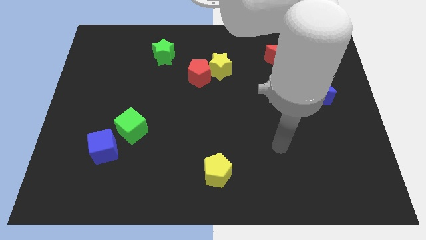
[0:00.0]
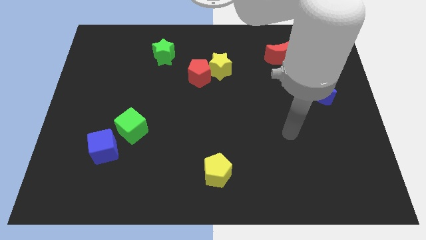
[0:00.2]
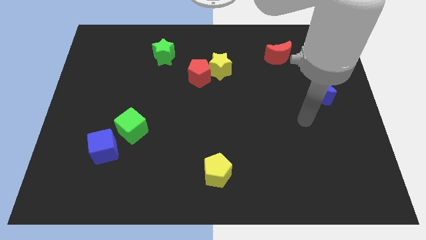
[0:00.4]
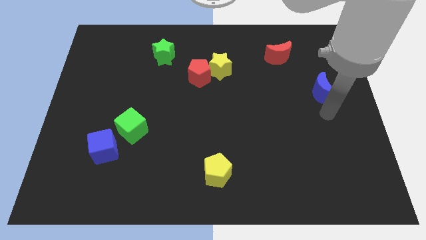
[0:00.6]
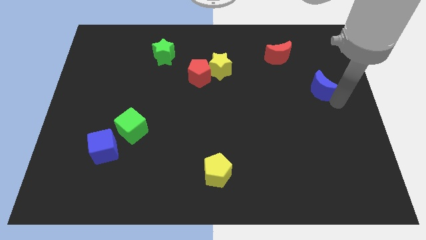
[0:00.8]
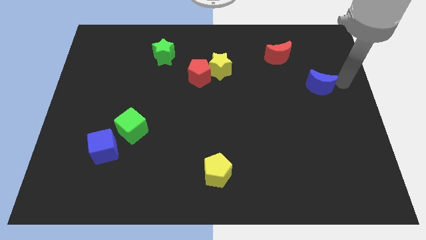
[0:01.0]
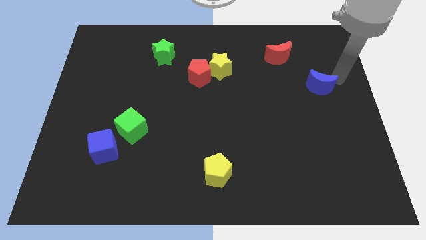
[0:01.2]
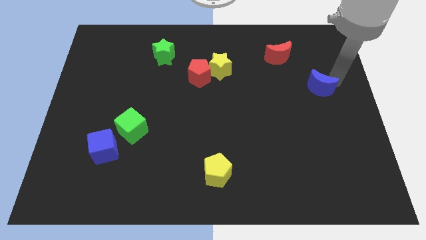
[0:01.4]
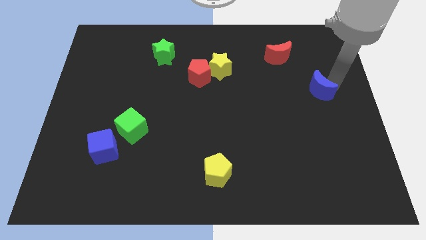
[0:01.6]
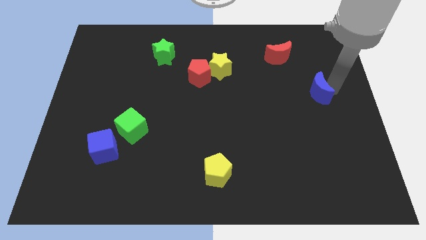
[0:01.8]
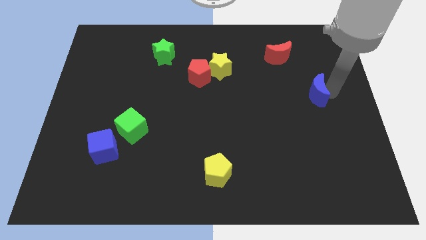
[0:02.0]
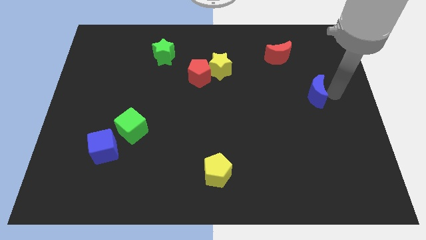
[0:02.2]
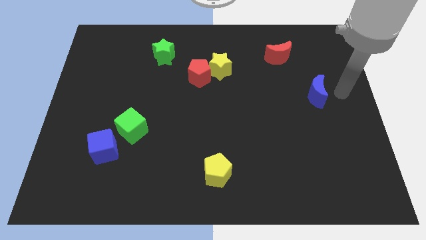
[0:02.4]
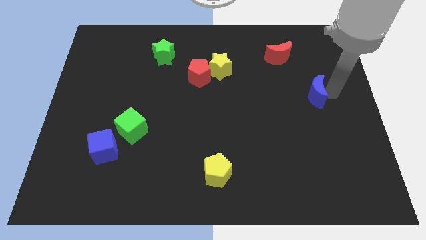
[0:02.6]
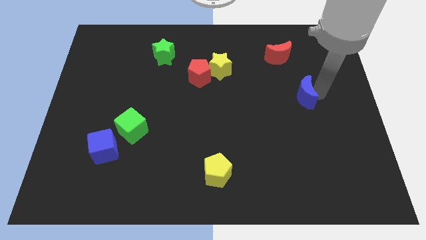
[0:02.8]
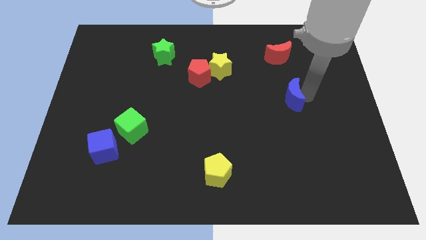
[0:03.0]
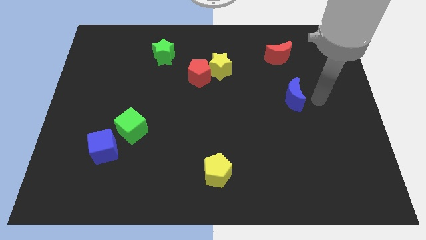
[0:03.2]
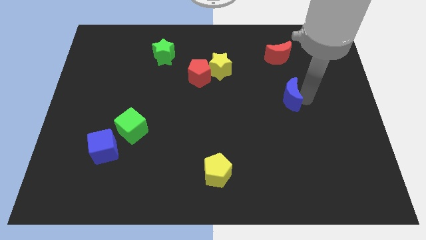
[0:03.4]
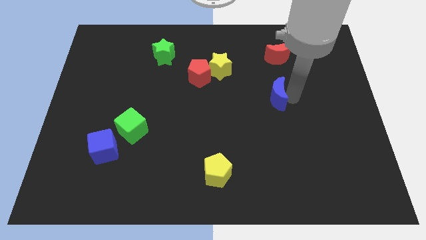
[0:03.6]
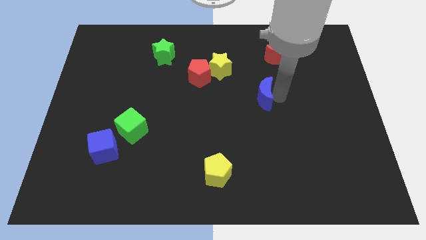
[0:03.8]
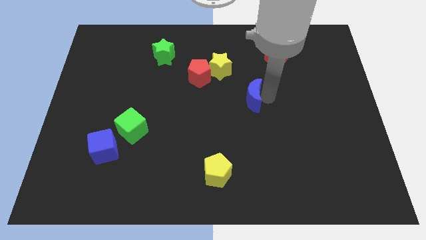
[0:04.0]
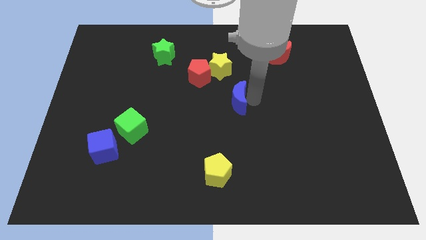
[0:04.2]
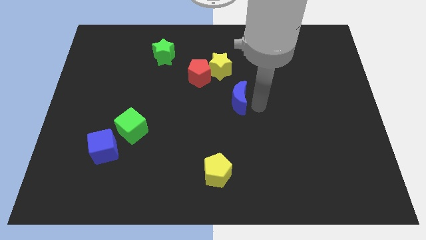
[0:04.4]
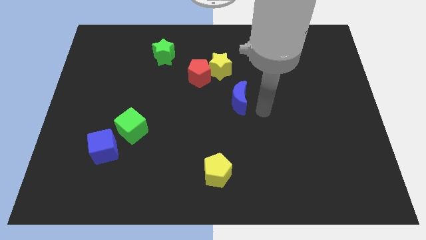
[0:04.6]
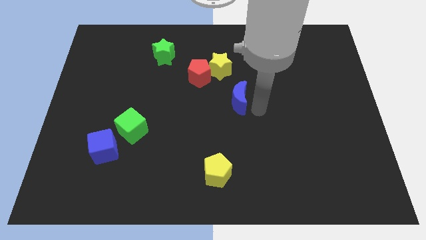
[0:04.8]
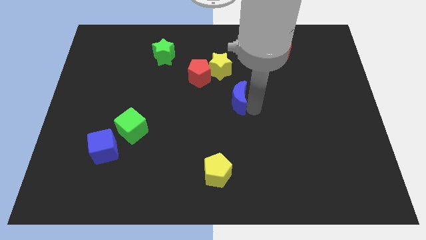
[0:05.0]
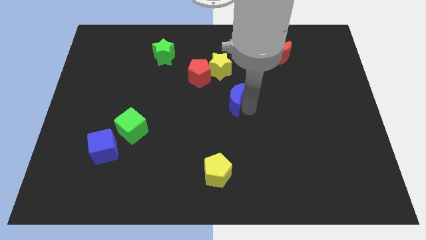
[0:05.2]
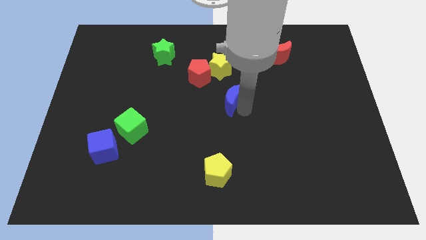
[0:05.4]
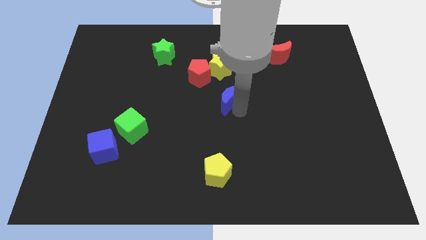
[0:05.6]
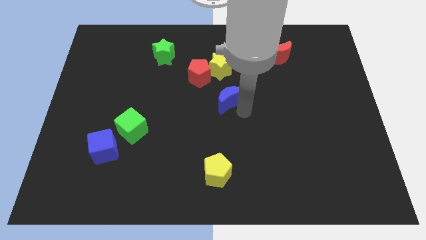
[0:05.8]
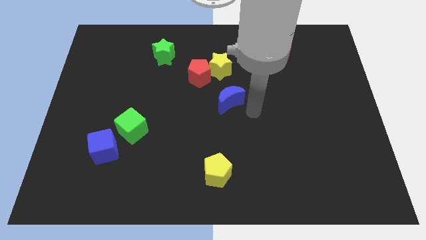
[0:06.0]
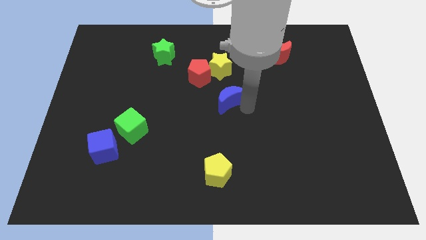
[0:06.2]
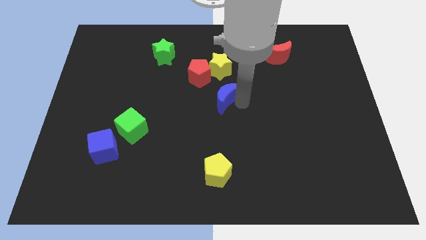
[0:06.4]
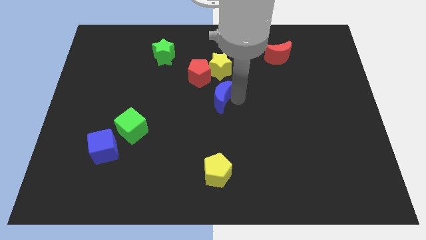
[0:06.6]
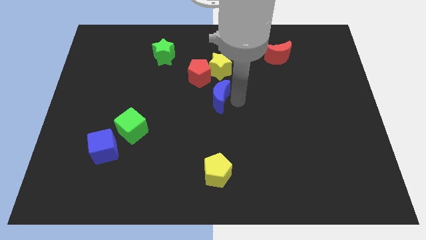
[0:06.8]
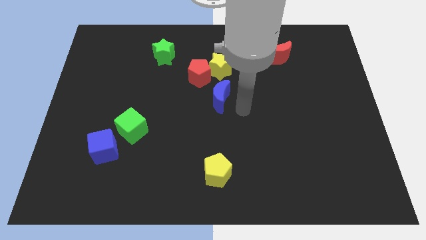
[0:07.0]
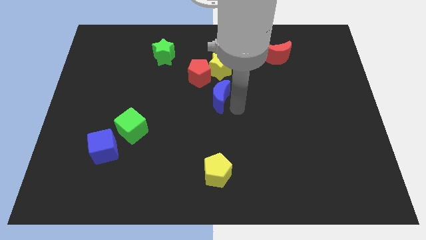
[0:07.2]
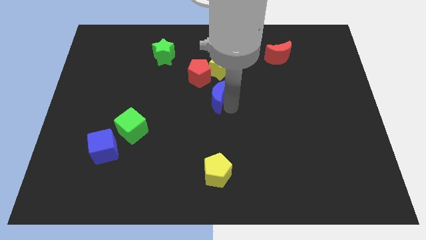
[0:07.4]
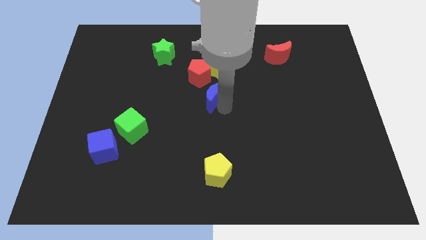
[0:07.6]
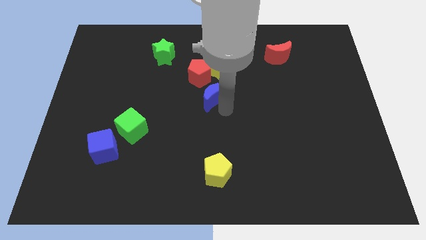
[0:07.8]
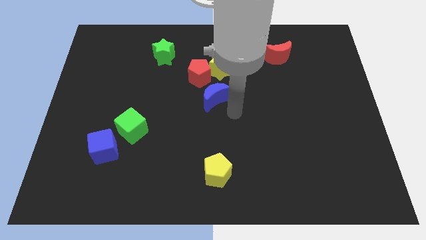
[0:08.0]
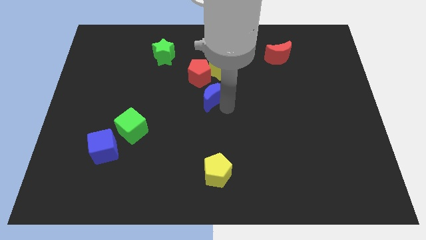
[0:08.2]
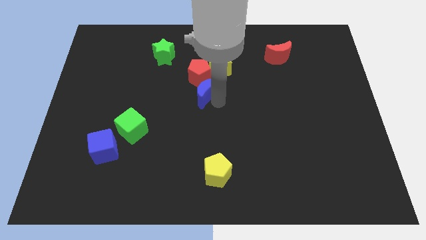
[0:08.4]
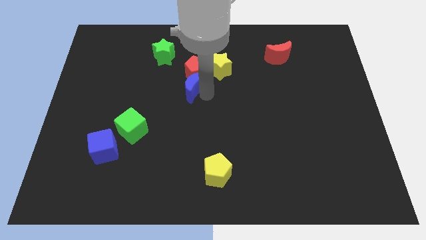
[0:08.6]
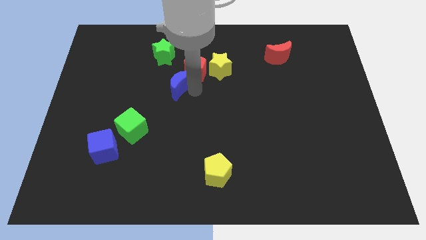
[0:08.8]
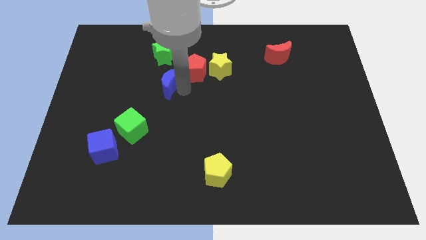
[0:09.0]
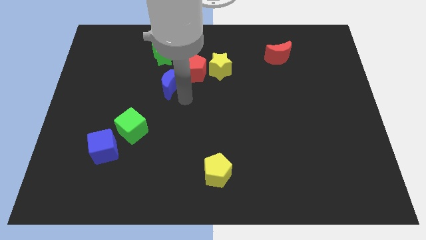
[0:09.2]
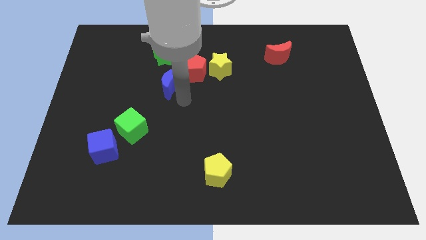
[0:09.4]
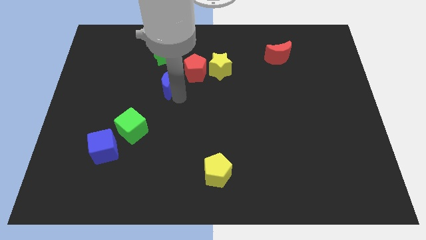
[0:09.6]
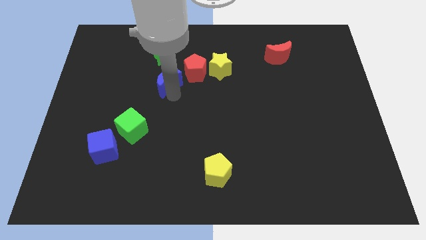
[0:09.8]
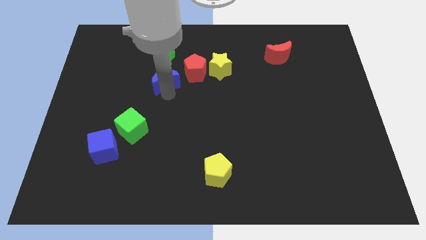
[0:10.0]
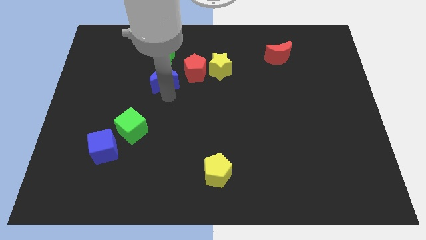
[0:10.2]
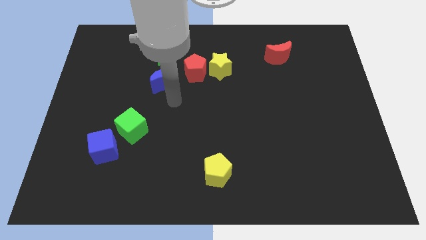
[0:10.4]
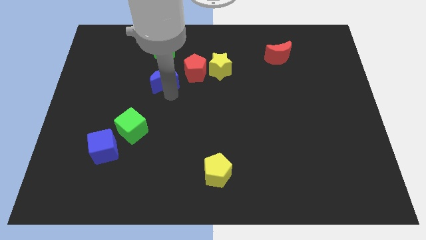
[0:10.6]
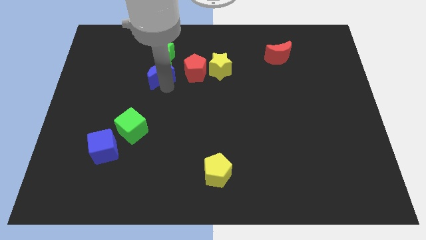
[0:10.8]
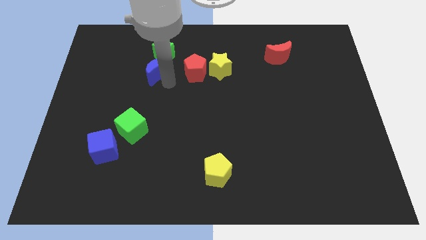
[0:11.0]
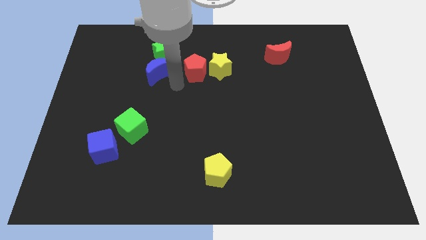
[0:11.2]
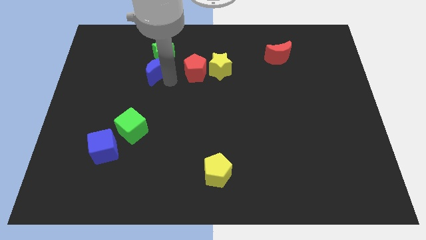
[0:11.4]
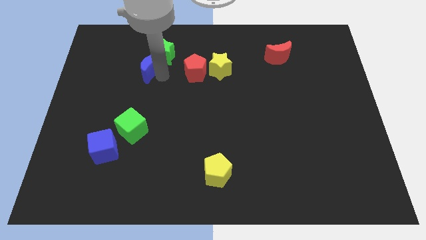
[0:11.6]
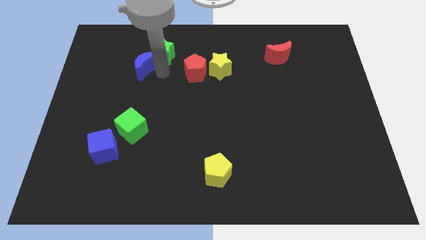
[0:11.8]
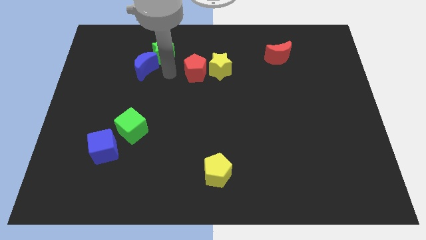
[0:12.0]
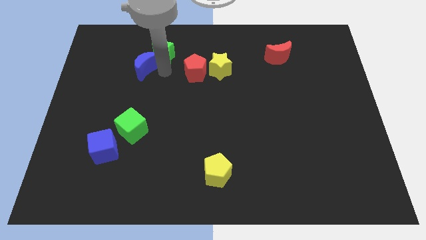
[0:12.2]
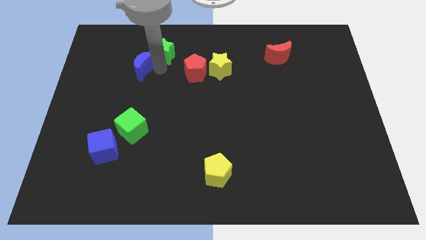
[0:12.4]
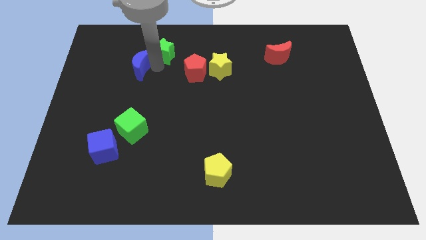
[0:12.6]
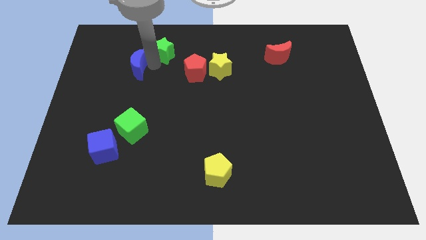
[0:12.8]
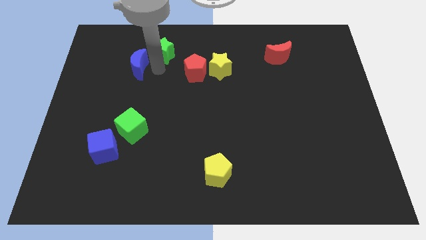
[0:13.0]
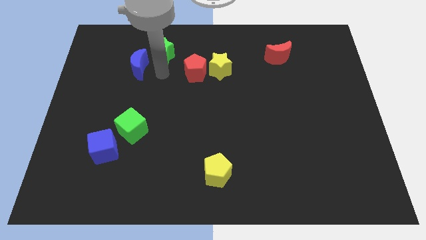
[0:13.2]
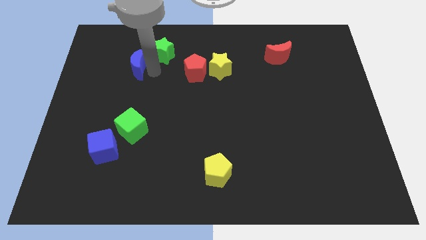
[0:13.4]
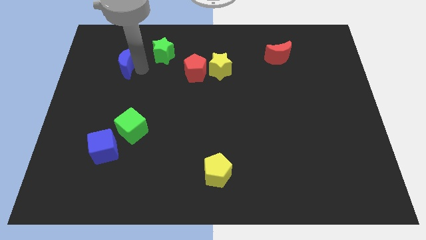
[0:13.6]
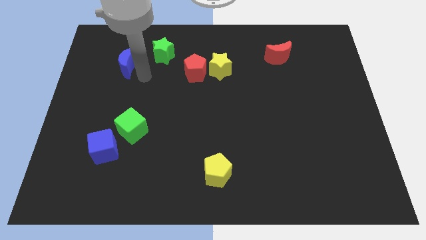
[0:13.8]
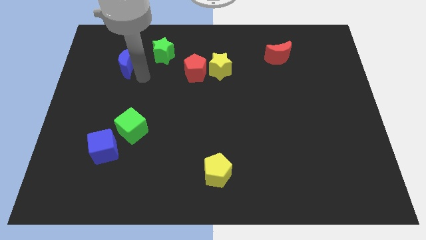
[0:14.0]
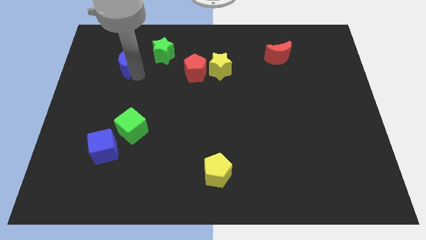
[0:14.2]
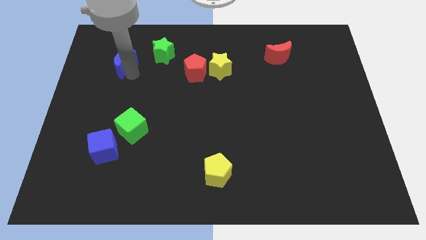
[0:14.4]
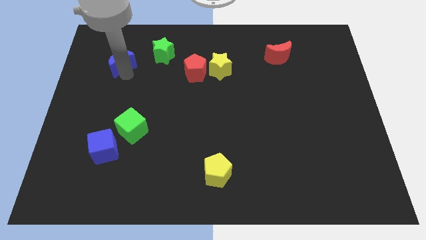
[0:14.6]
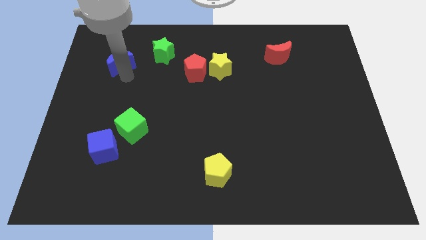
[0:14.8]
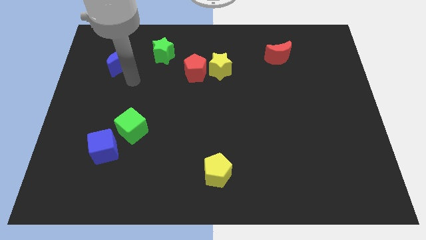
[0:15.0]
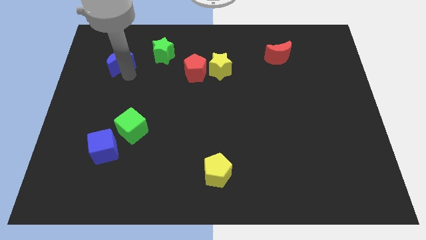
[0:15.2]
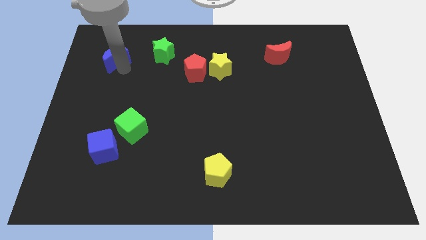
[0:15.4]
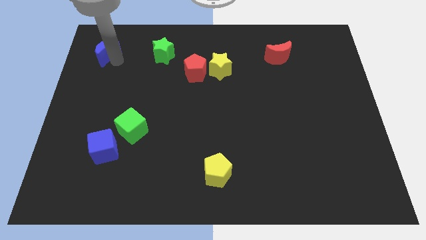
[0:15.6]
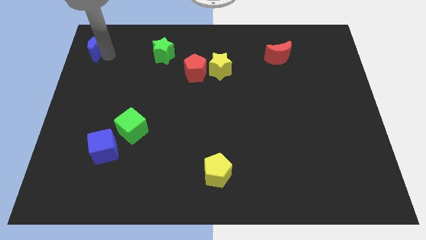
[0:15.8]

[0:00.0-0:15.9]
move the blue moon to the top left
